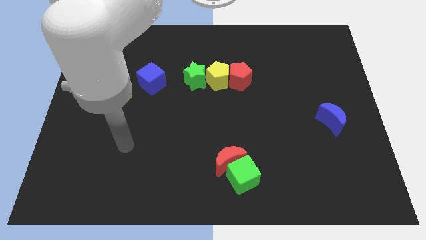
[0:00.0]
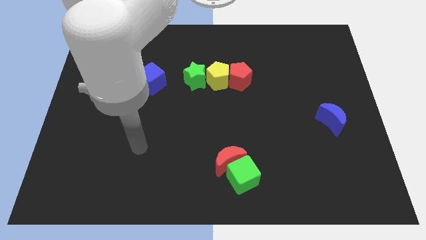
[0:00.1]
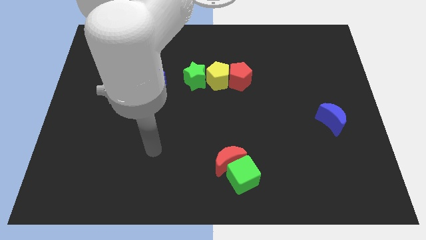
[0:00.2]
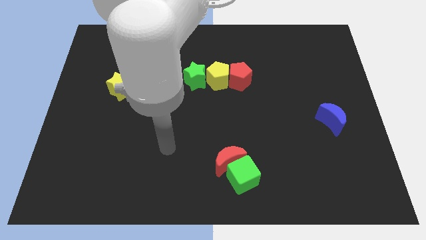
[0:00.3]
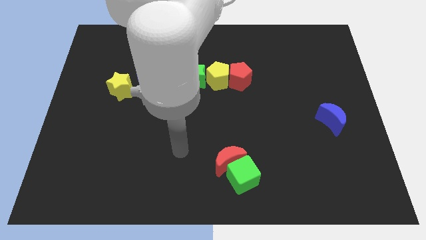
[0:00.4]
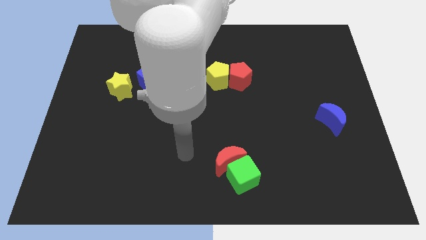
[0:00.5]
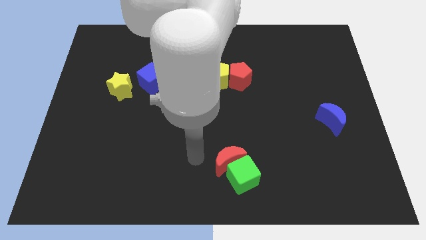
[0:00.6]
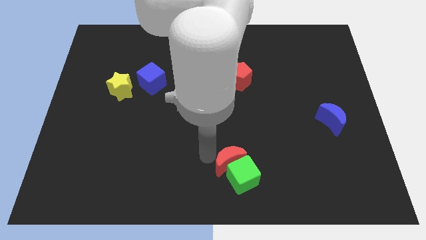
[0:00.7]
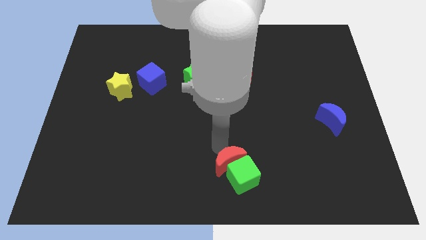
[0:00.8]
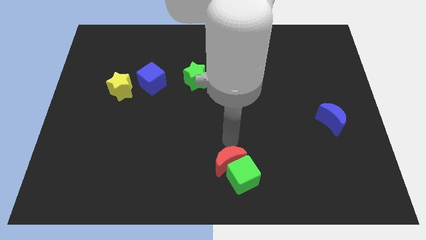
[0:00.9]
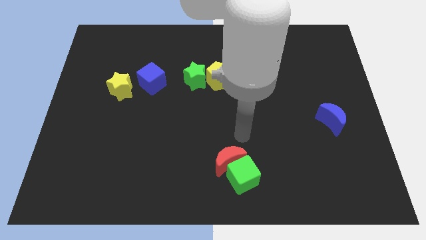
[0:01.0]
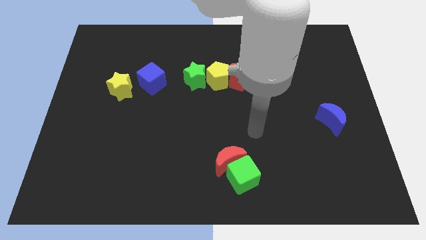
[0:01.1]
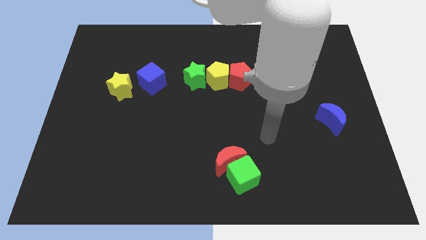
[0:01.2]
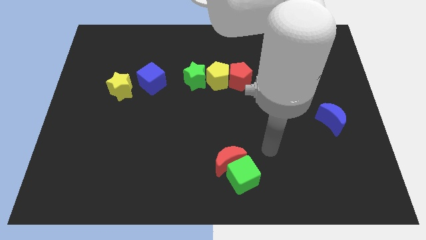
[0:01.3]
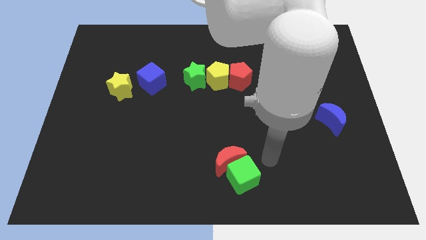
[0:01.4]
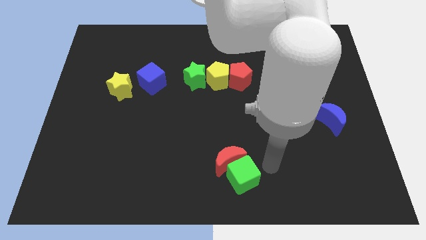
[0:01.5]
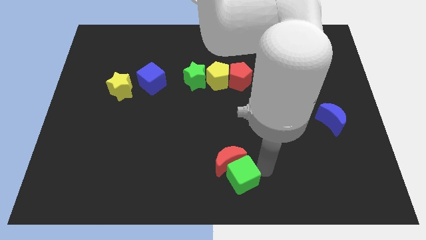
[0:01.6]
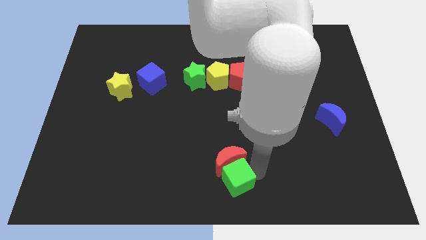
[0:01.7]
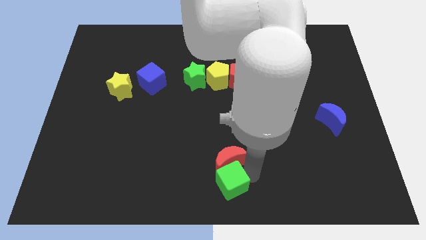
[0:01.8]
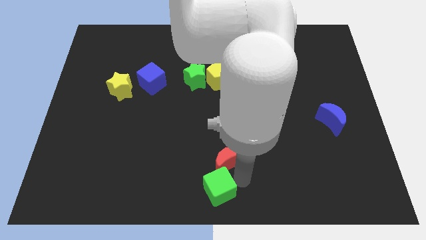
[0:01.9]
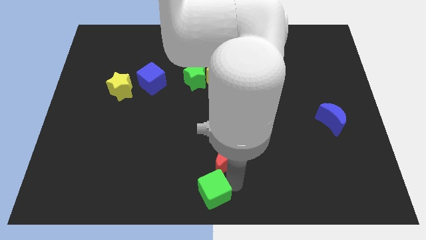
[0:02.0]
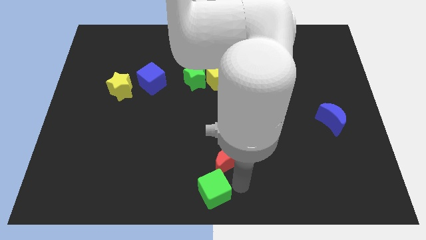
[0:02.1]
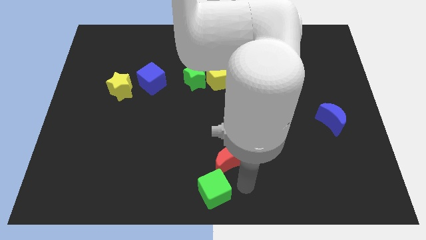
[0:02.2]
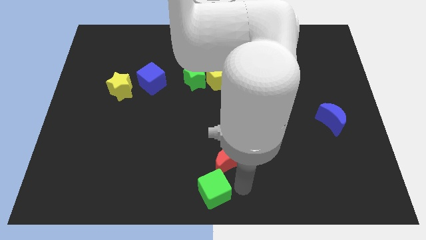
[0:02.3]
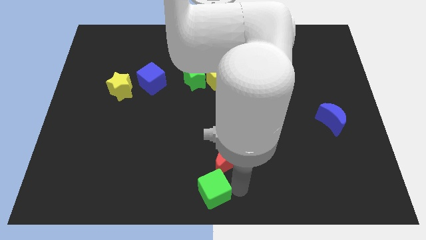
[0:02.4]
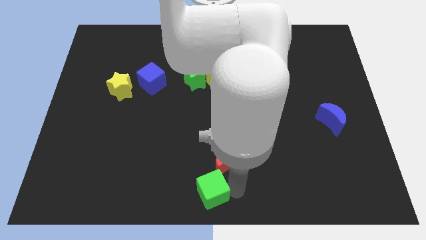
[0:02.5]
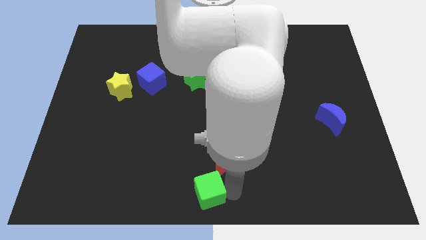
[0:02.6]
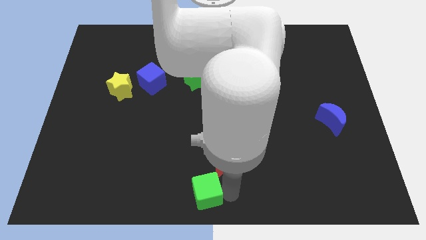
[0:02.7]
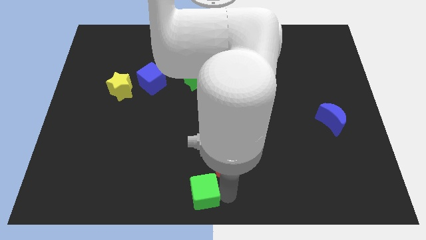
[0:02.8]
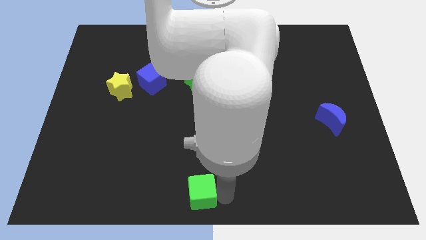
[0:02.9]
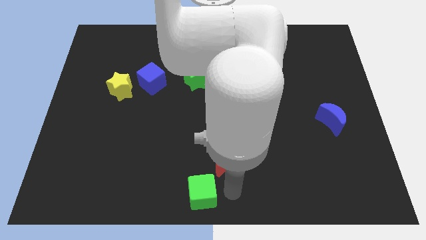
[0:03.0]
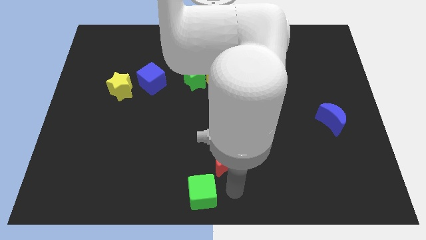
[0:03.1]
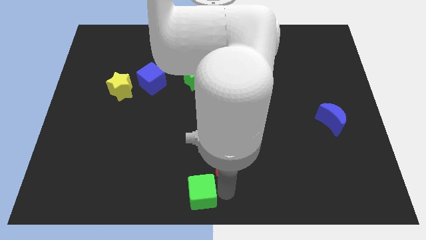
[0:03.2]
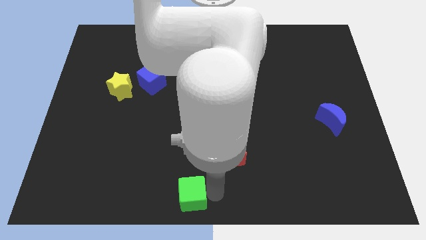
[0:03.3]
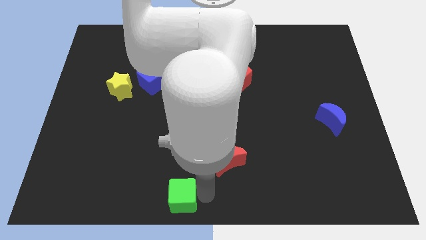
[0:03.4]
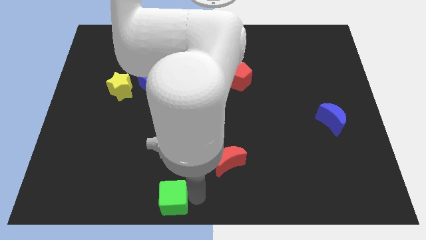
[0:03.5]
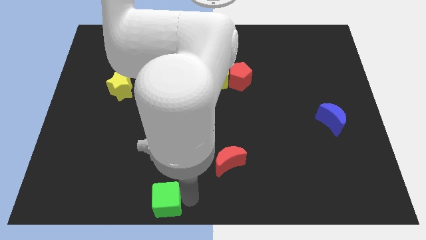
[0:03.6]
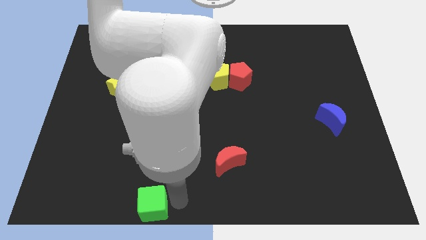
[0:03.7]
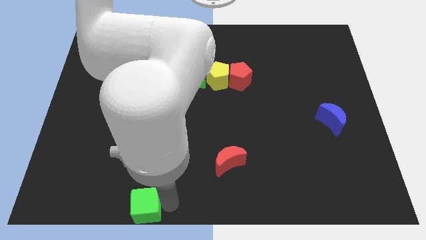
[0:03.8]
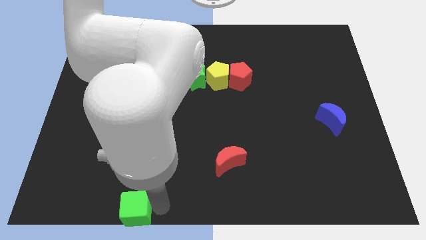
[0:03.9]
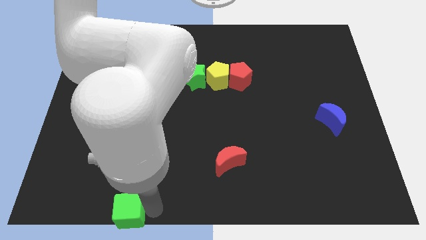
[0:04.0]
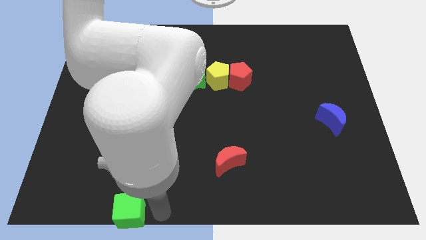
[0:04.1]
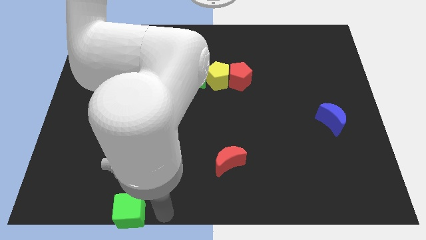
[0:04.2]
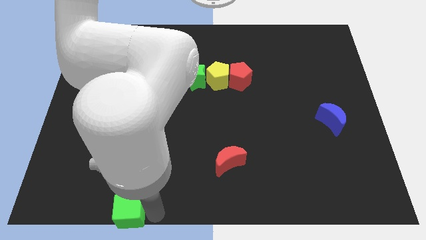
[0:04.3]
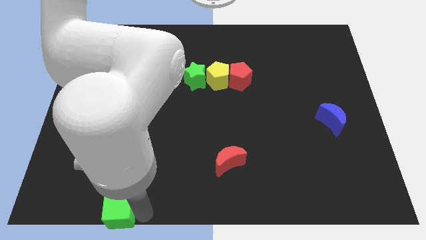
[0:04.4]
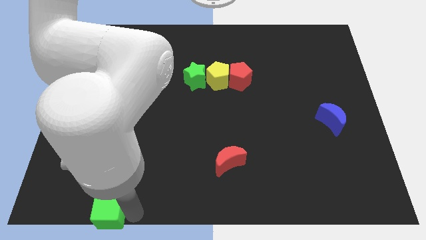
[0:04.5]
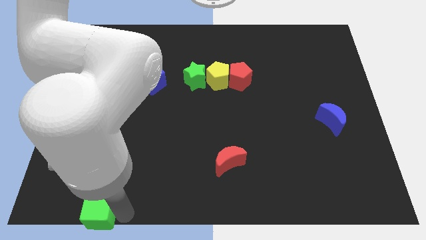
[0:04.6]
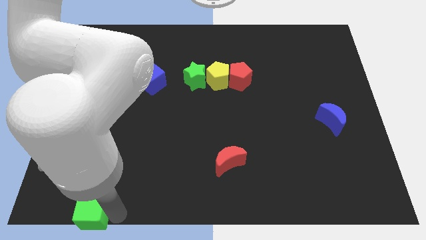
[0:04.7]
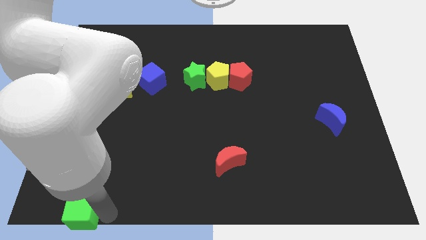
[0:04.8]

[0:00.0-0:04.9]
slide the green cube to the lower left corner

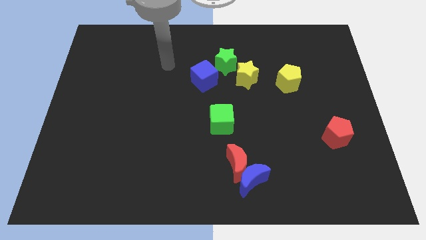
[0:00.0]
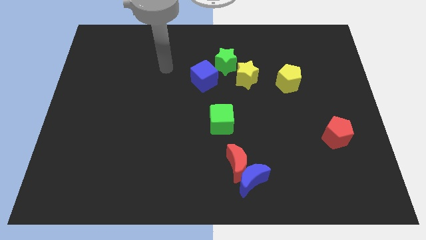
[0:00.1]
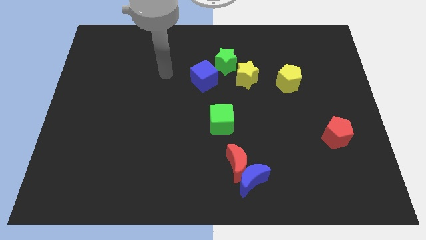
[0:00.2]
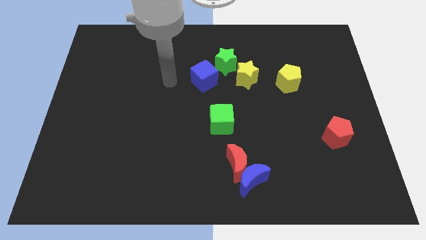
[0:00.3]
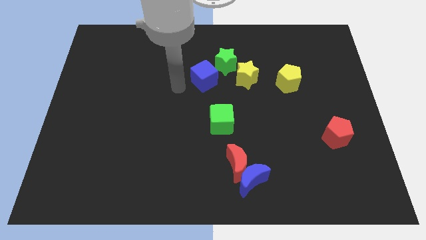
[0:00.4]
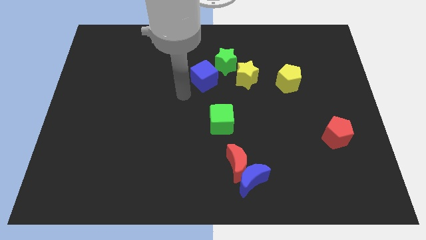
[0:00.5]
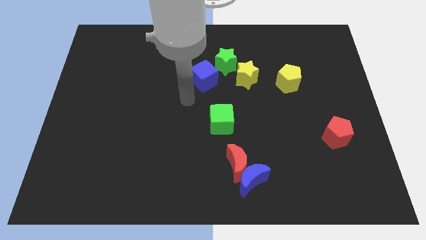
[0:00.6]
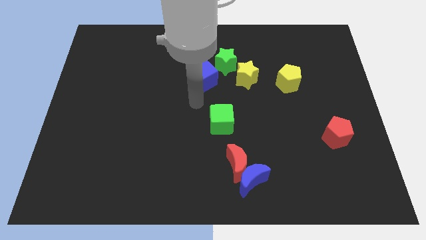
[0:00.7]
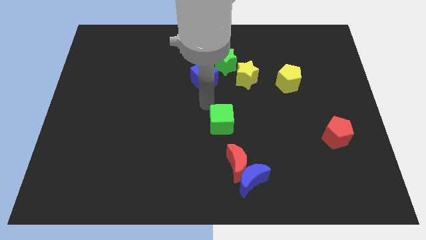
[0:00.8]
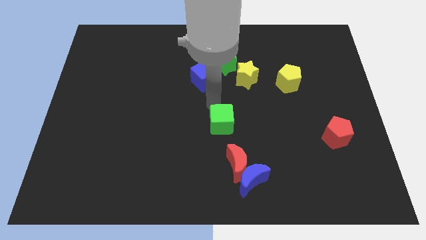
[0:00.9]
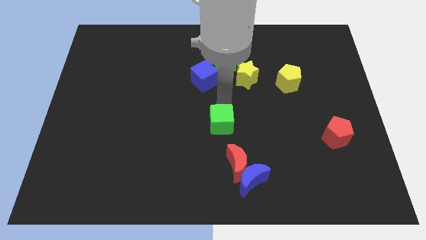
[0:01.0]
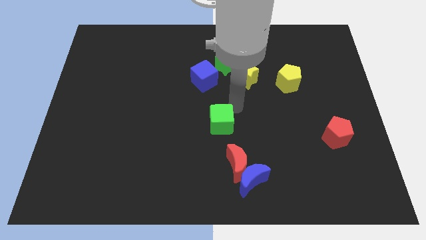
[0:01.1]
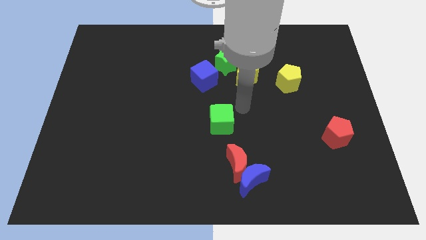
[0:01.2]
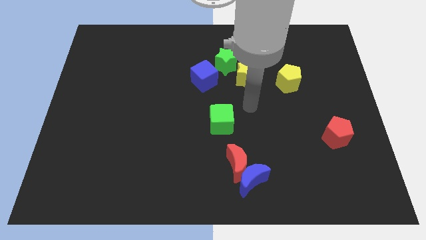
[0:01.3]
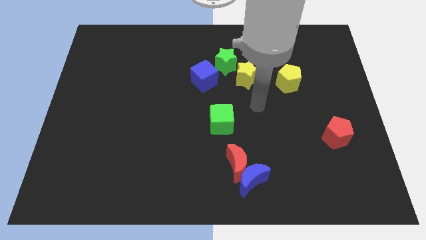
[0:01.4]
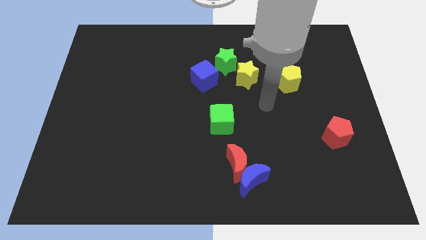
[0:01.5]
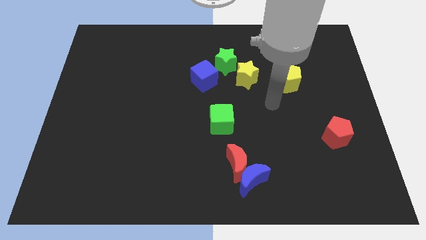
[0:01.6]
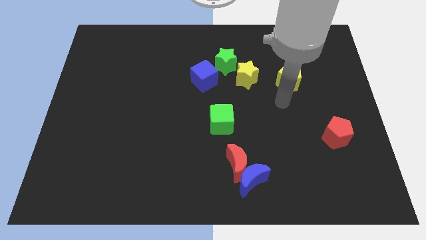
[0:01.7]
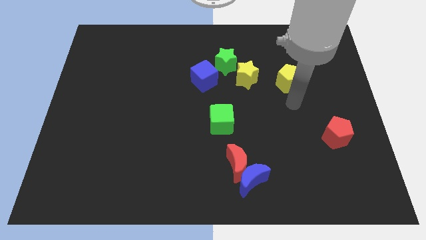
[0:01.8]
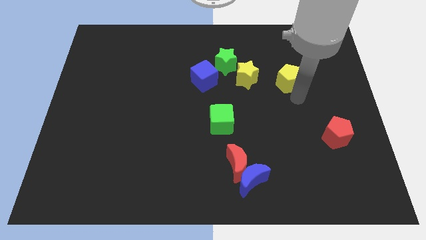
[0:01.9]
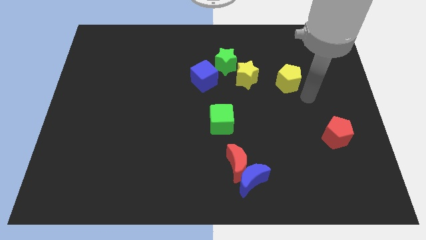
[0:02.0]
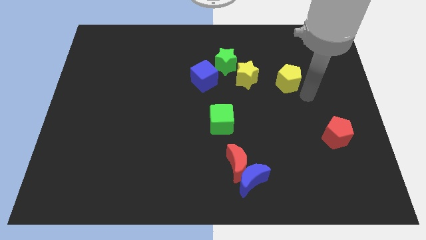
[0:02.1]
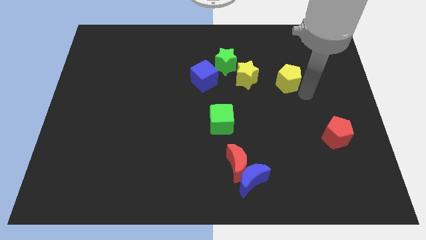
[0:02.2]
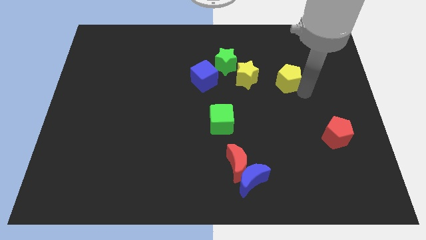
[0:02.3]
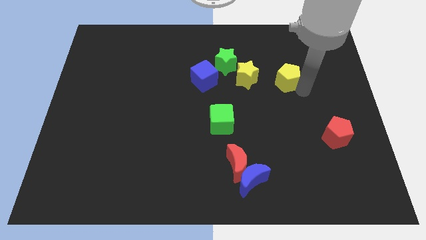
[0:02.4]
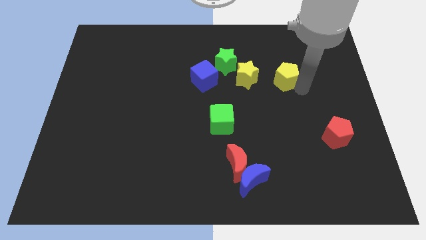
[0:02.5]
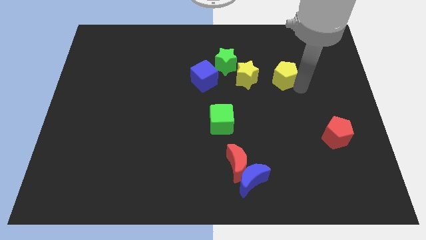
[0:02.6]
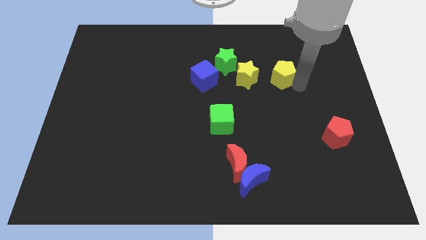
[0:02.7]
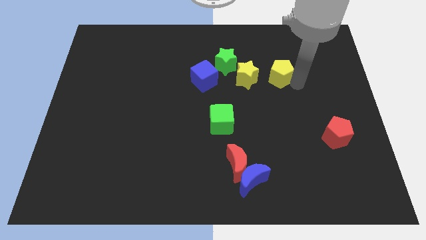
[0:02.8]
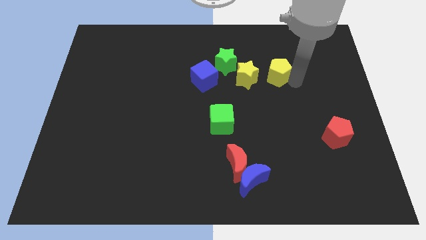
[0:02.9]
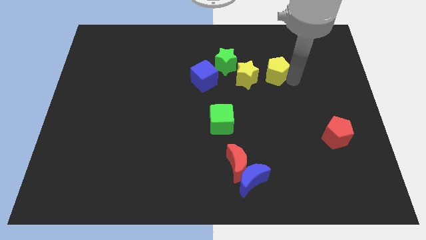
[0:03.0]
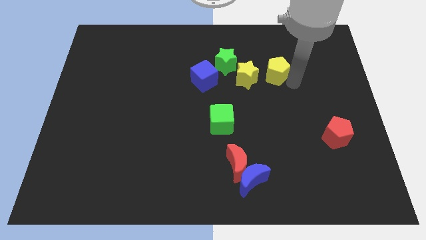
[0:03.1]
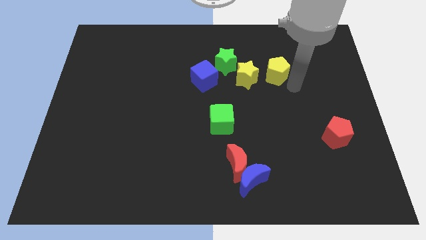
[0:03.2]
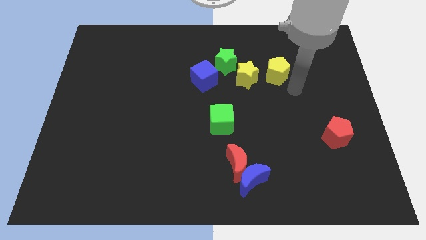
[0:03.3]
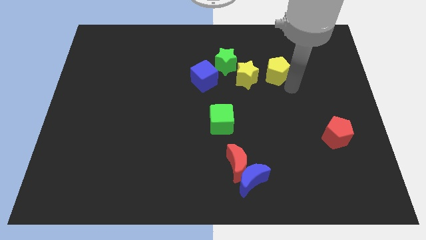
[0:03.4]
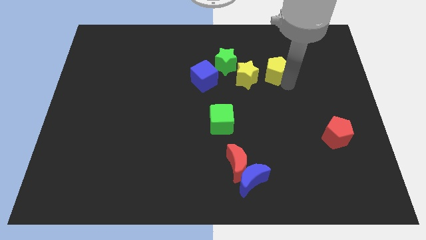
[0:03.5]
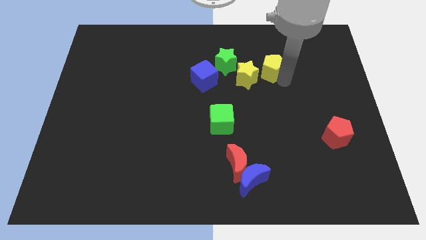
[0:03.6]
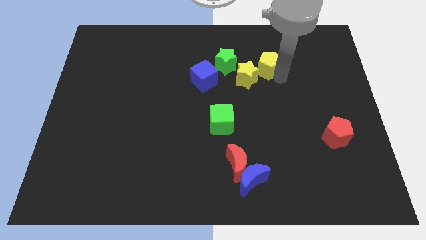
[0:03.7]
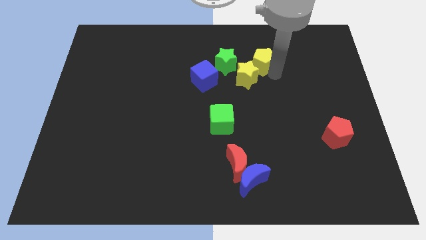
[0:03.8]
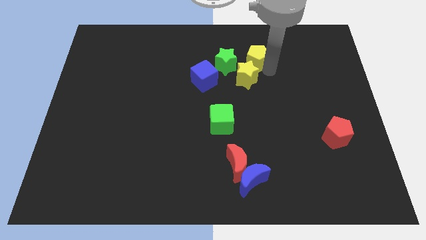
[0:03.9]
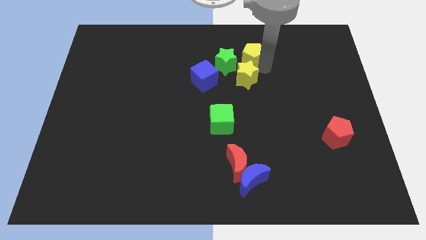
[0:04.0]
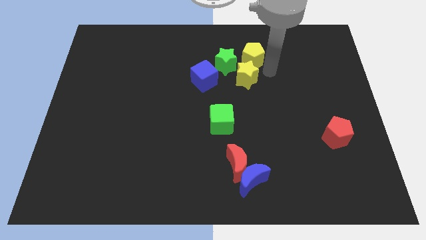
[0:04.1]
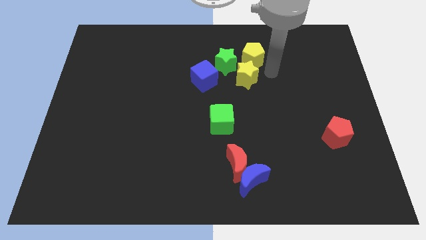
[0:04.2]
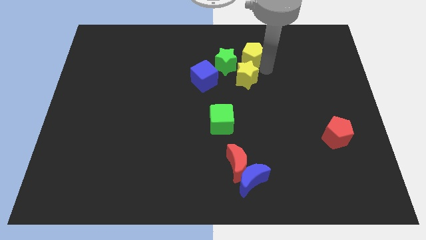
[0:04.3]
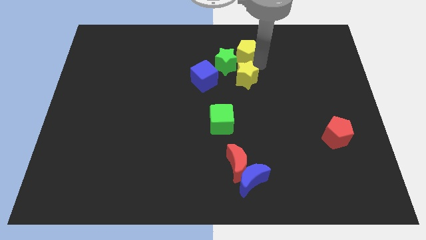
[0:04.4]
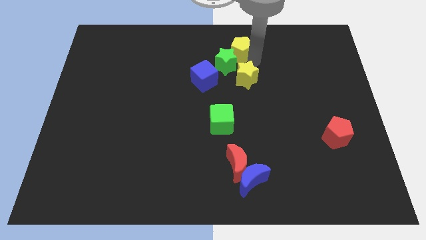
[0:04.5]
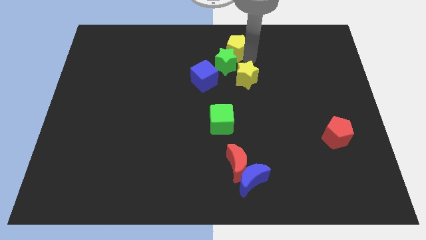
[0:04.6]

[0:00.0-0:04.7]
slide the yellow pentagon to the top side
